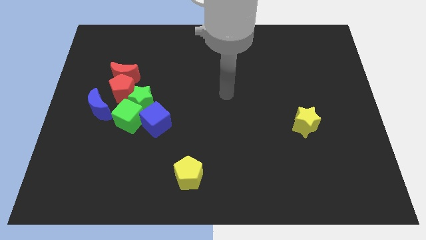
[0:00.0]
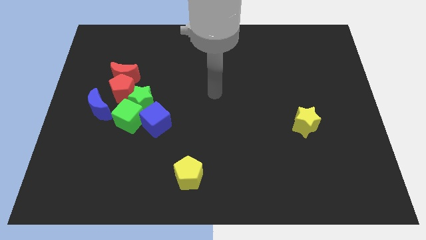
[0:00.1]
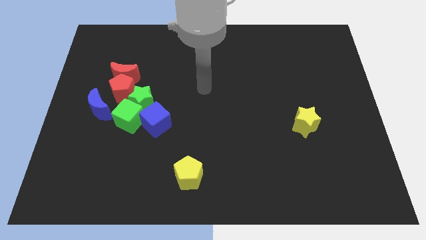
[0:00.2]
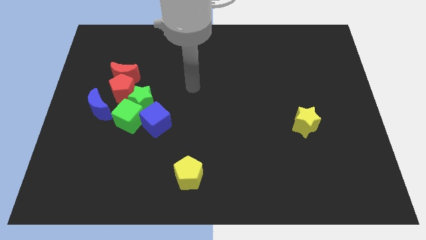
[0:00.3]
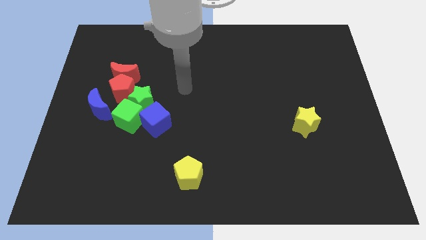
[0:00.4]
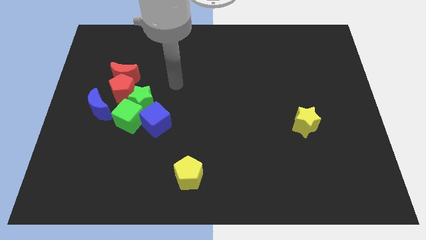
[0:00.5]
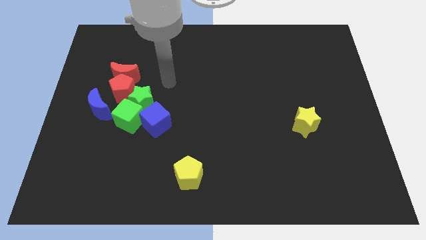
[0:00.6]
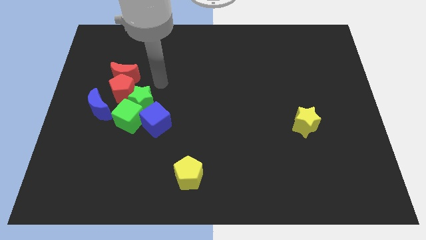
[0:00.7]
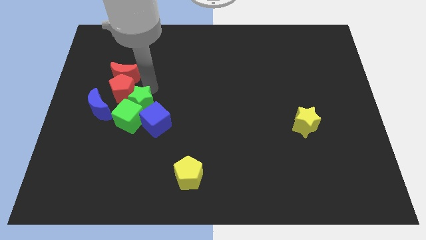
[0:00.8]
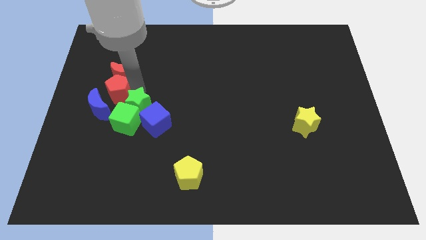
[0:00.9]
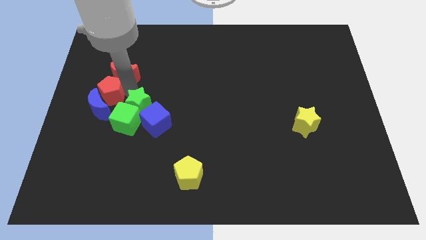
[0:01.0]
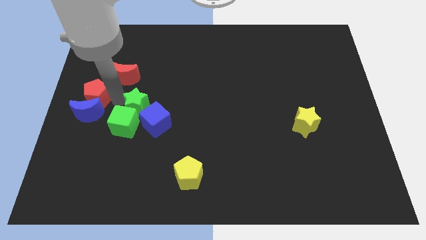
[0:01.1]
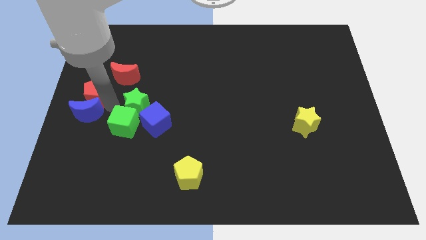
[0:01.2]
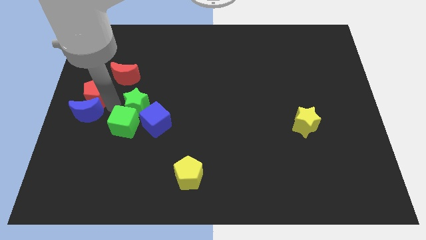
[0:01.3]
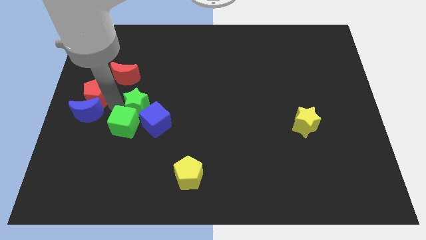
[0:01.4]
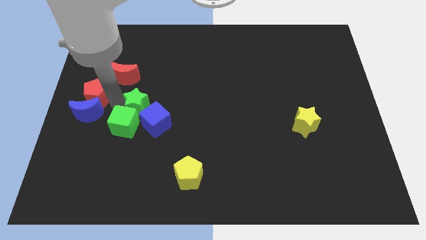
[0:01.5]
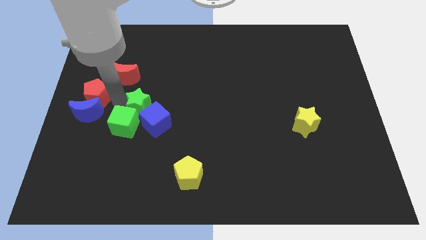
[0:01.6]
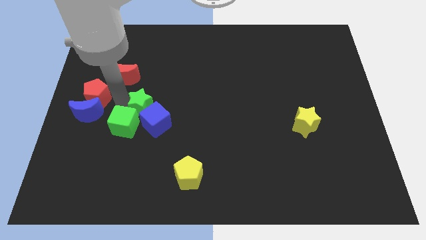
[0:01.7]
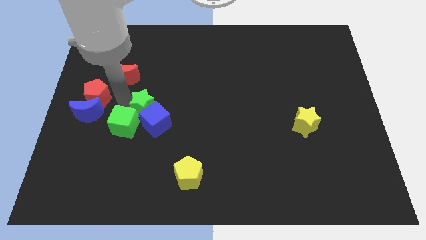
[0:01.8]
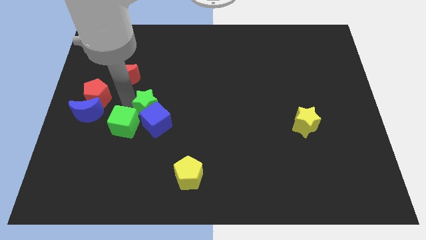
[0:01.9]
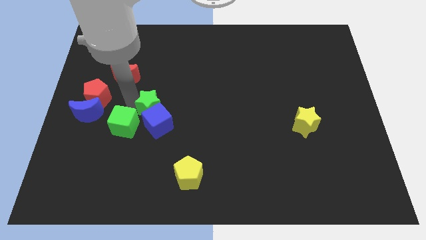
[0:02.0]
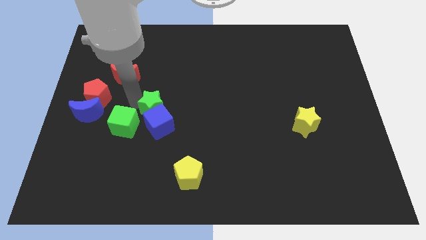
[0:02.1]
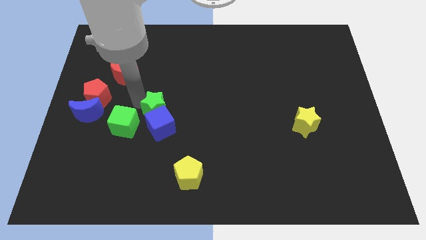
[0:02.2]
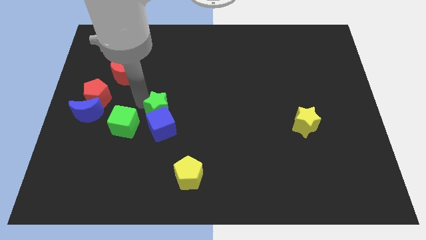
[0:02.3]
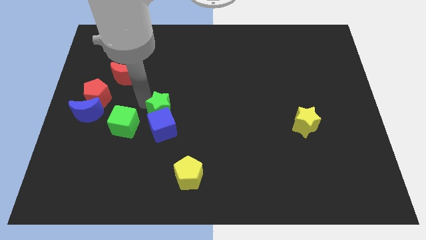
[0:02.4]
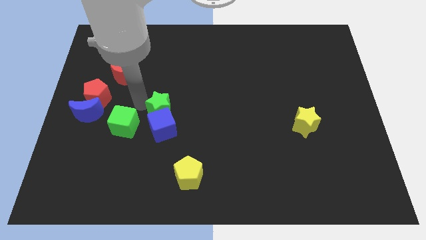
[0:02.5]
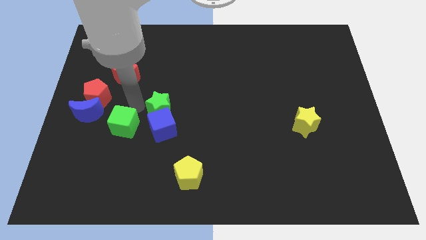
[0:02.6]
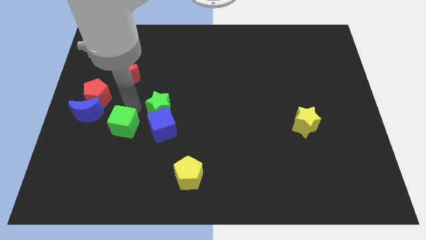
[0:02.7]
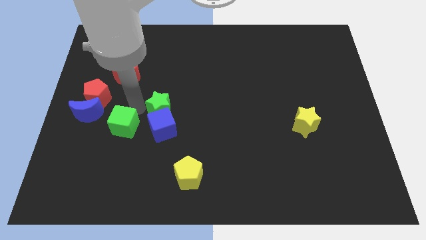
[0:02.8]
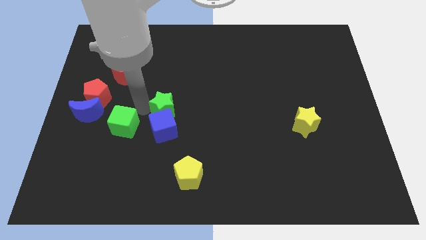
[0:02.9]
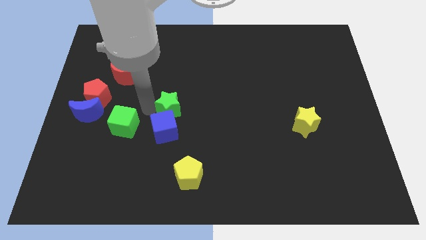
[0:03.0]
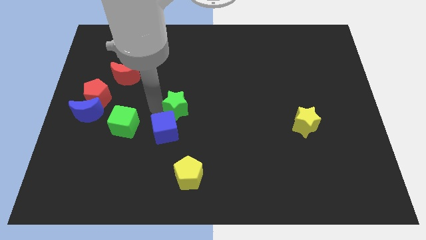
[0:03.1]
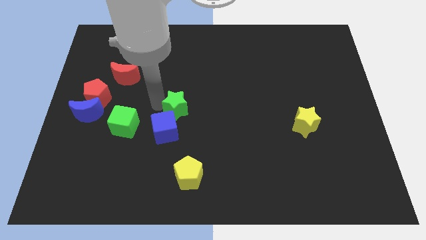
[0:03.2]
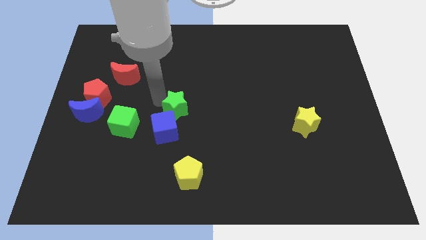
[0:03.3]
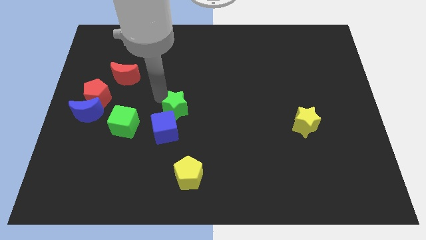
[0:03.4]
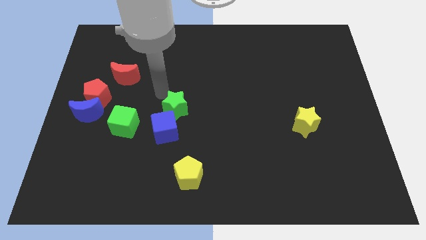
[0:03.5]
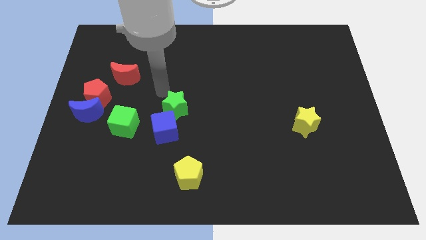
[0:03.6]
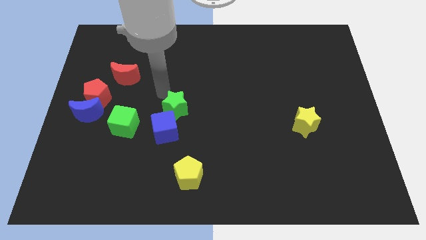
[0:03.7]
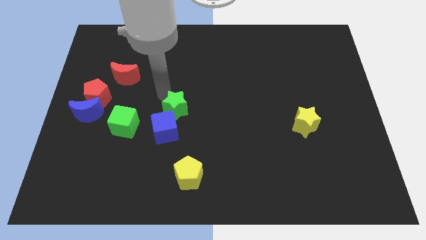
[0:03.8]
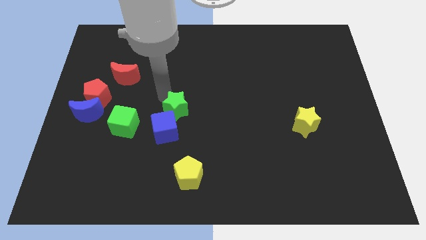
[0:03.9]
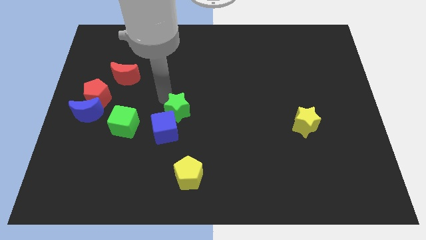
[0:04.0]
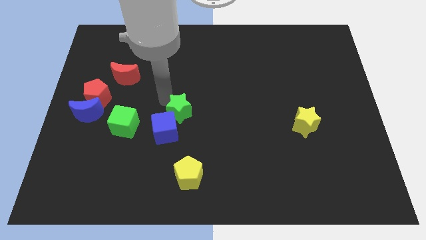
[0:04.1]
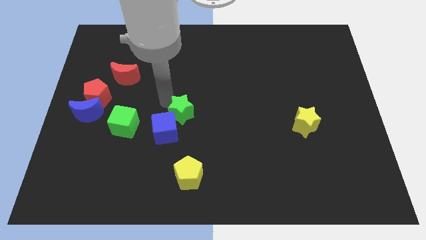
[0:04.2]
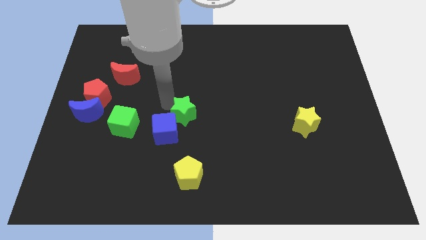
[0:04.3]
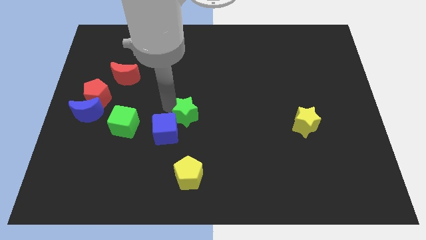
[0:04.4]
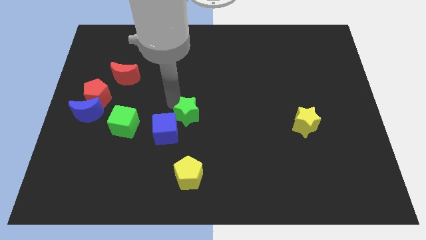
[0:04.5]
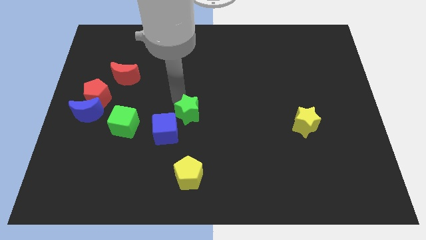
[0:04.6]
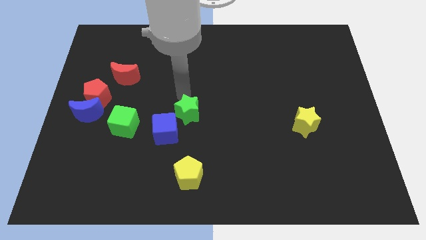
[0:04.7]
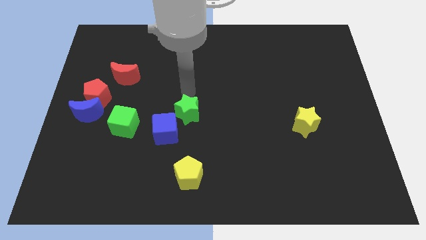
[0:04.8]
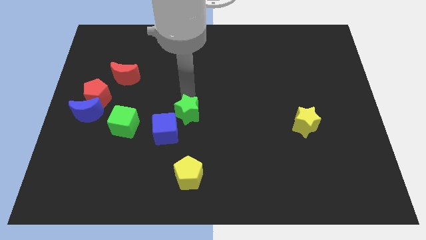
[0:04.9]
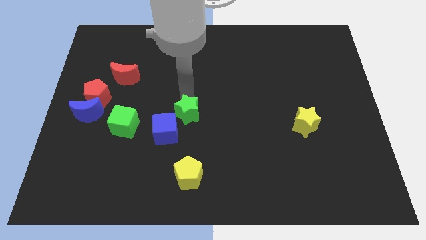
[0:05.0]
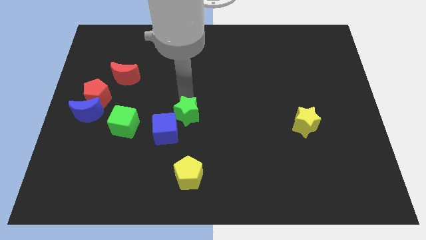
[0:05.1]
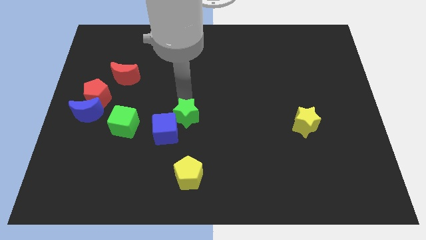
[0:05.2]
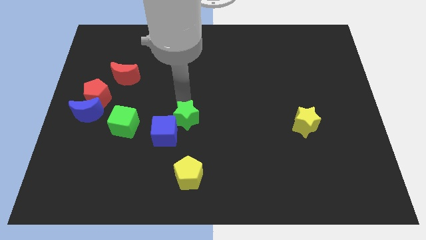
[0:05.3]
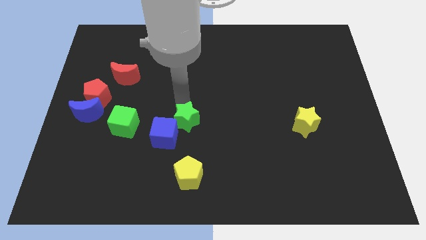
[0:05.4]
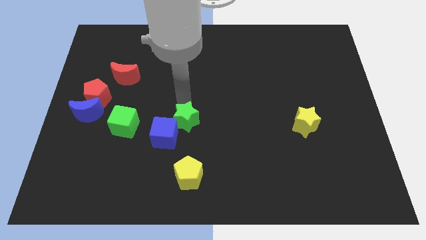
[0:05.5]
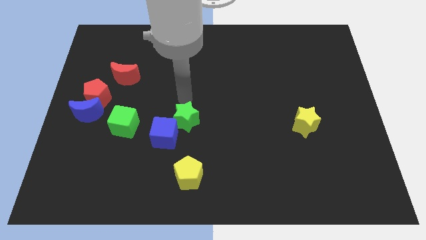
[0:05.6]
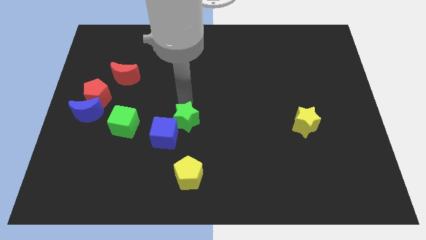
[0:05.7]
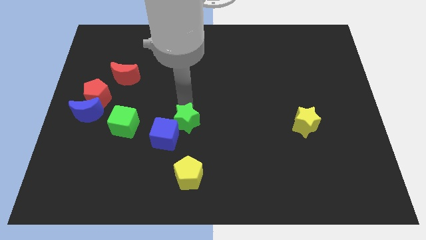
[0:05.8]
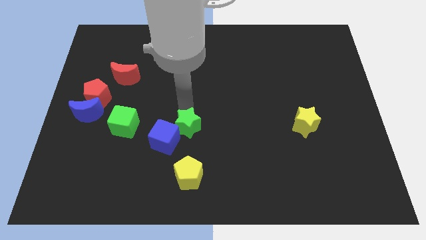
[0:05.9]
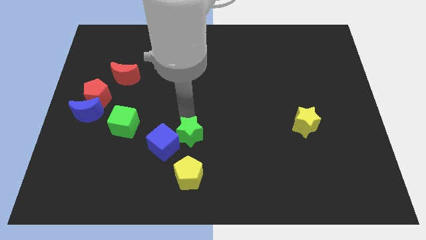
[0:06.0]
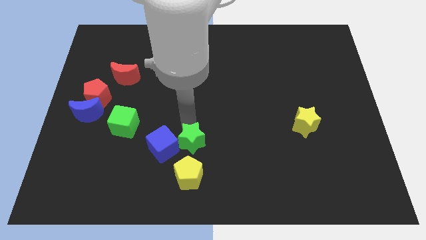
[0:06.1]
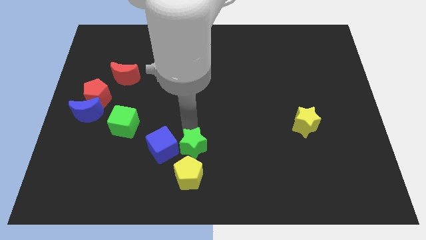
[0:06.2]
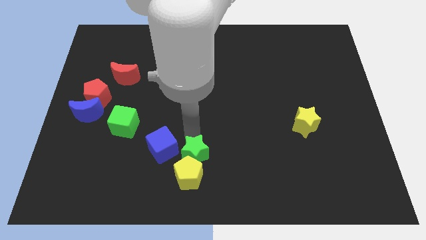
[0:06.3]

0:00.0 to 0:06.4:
put the green star close to the yellow pentagon

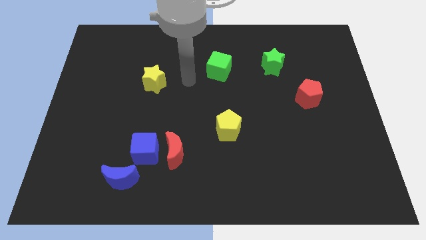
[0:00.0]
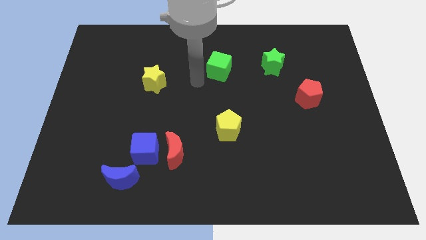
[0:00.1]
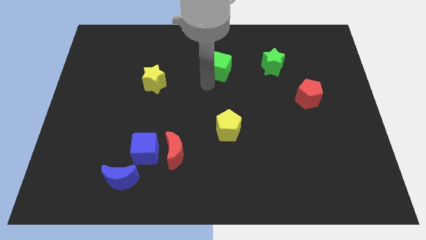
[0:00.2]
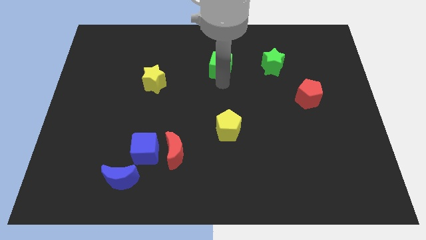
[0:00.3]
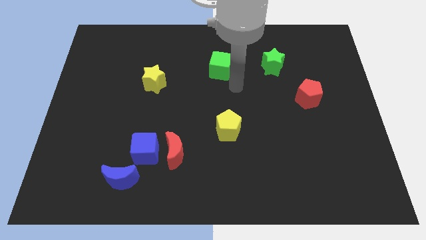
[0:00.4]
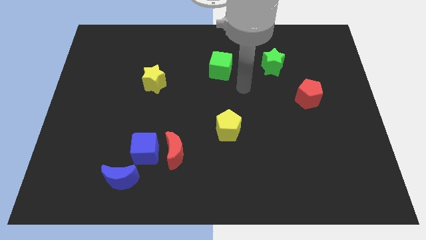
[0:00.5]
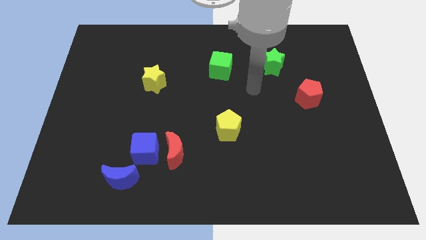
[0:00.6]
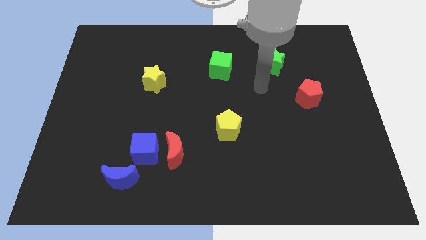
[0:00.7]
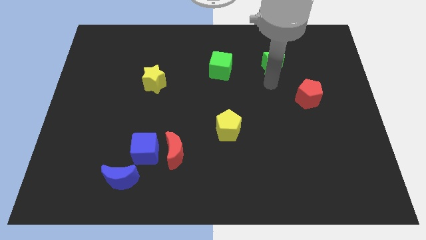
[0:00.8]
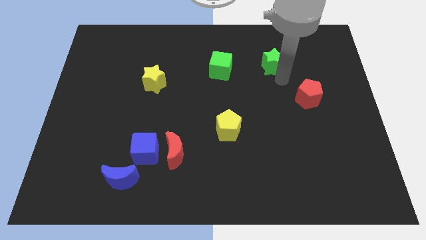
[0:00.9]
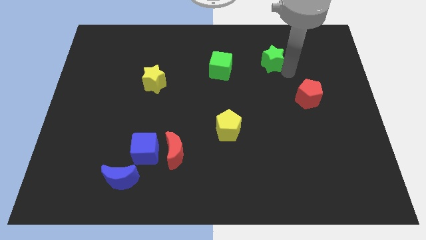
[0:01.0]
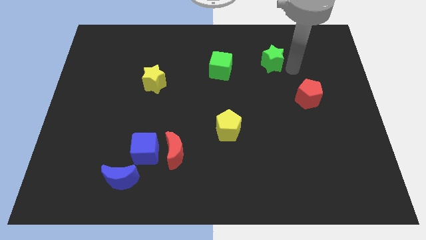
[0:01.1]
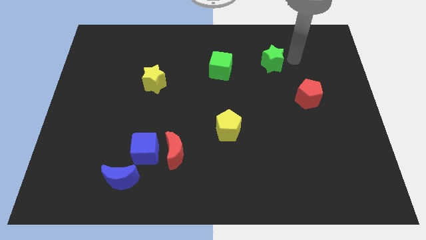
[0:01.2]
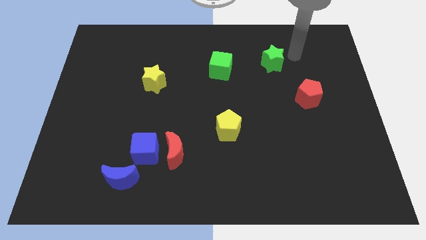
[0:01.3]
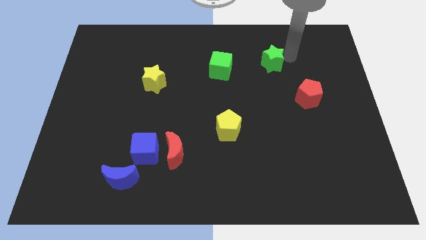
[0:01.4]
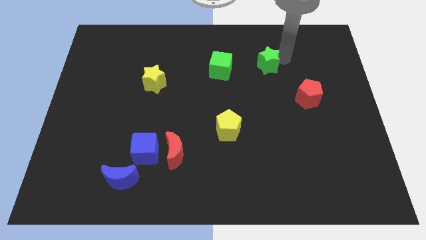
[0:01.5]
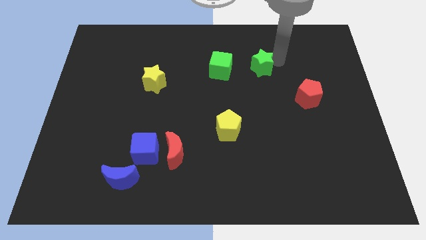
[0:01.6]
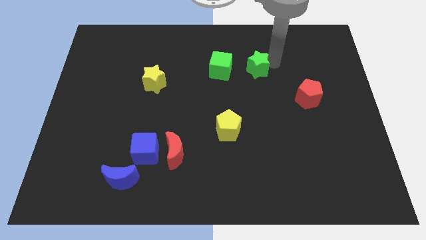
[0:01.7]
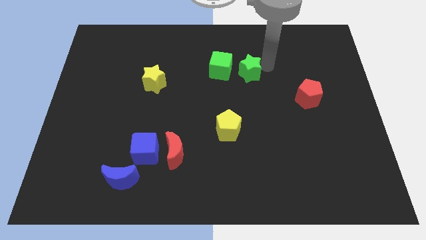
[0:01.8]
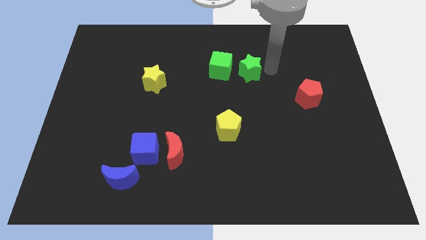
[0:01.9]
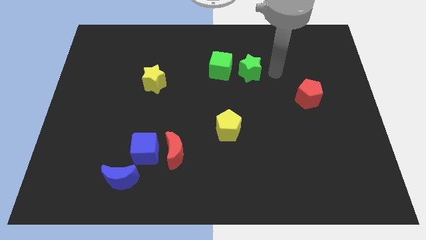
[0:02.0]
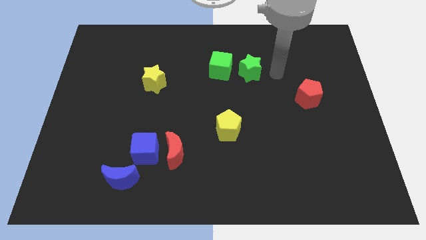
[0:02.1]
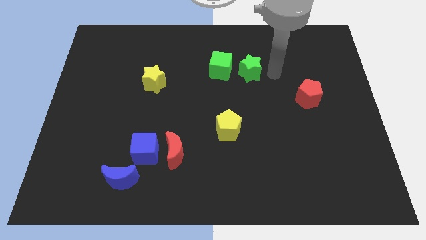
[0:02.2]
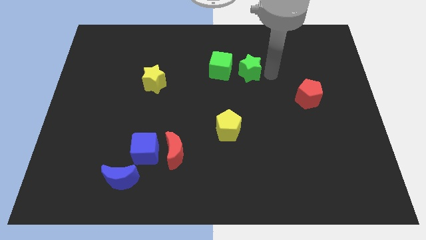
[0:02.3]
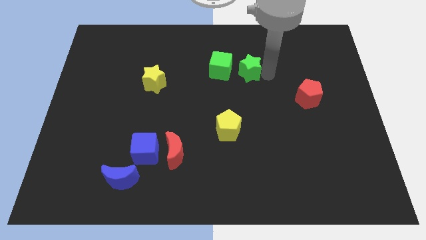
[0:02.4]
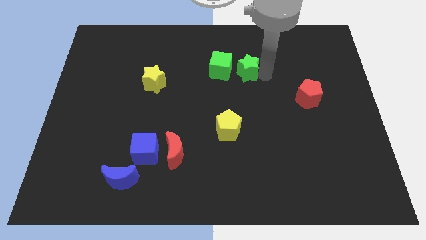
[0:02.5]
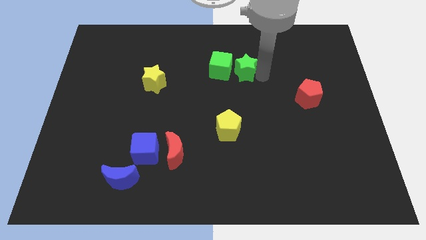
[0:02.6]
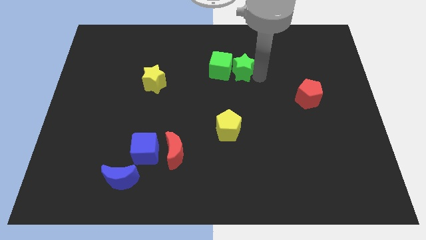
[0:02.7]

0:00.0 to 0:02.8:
put the green star next to the green cube
